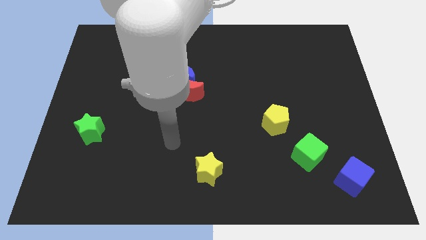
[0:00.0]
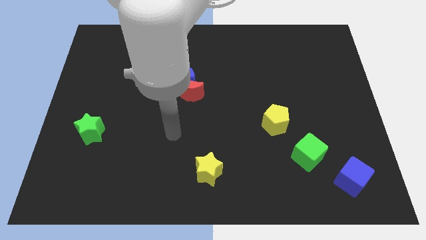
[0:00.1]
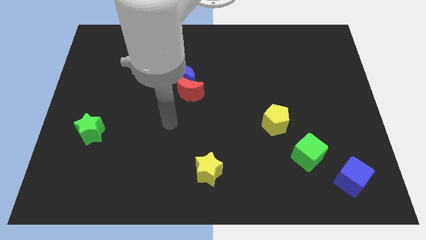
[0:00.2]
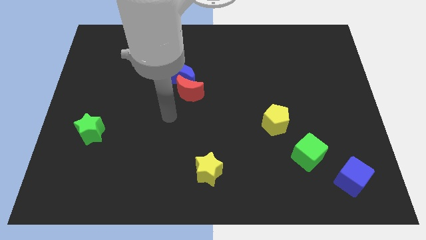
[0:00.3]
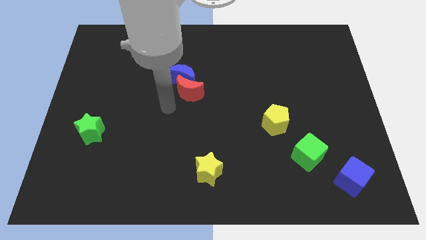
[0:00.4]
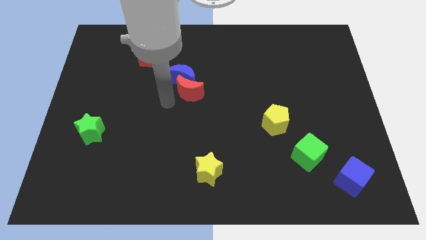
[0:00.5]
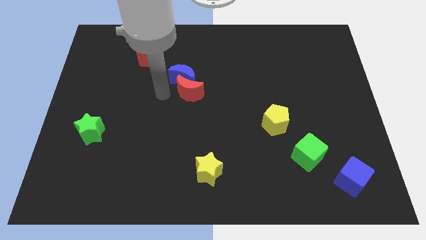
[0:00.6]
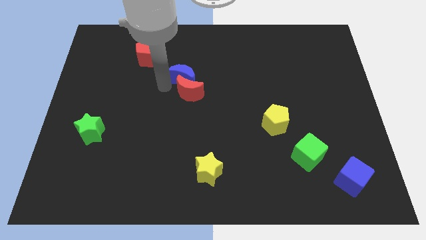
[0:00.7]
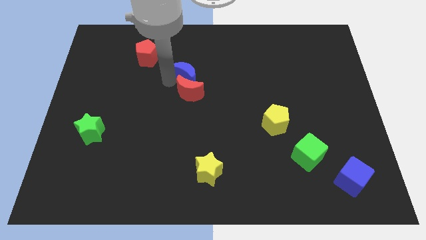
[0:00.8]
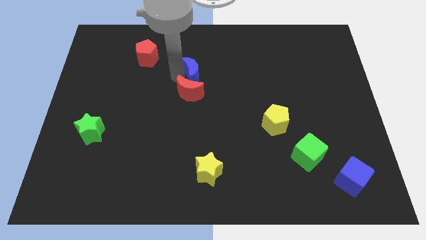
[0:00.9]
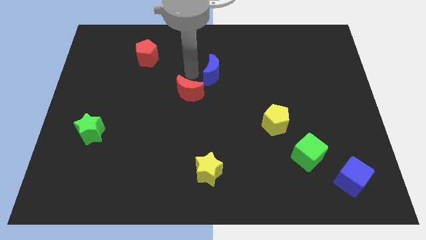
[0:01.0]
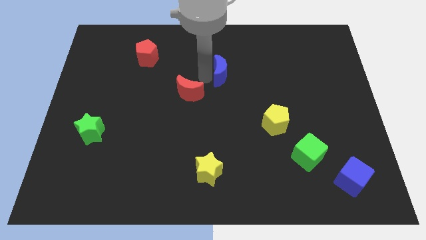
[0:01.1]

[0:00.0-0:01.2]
separate the red moon from the blue moon

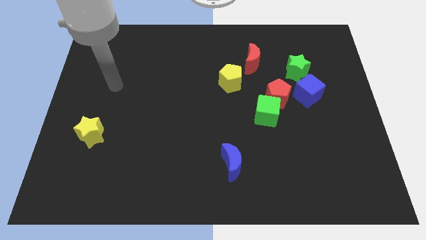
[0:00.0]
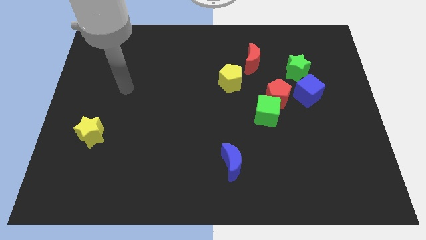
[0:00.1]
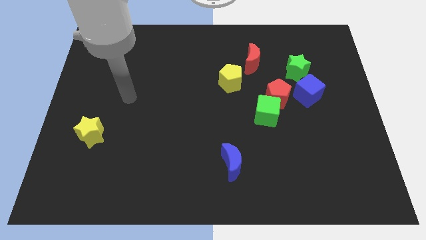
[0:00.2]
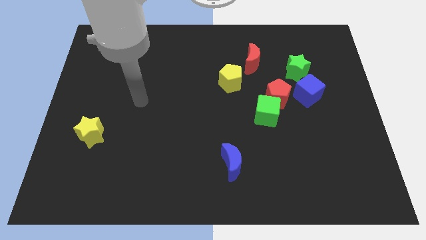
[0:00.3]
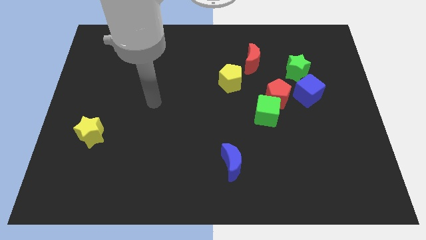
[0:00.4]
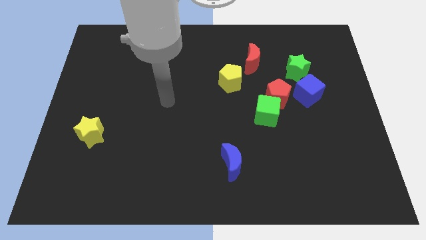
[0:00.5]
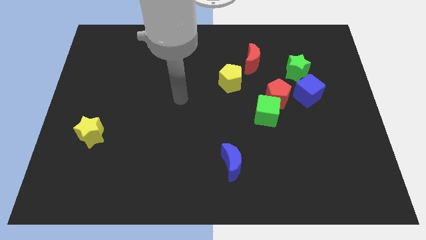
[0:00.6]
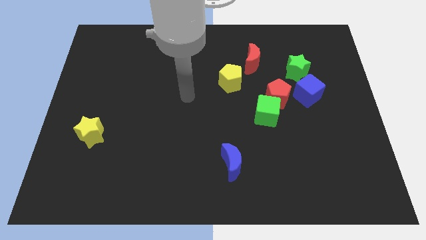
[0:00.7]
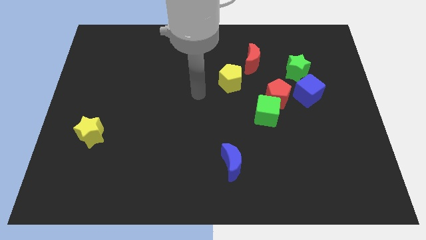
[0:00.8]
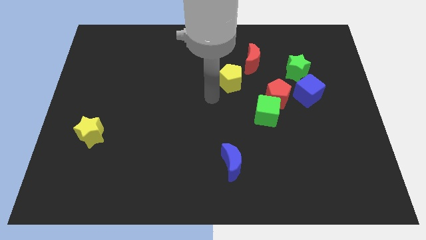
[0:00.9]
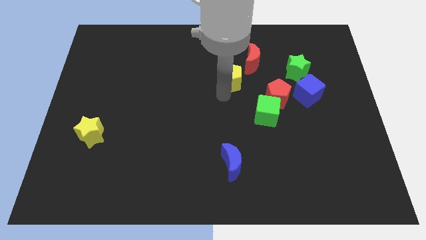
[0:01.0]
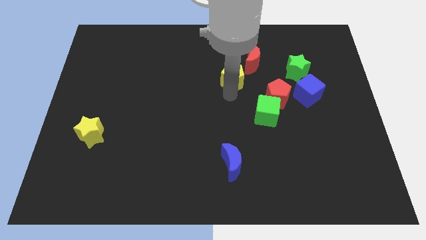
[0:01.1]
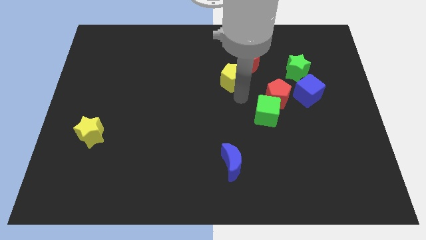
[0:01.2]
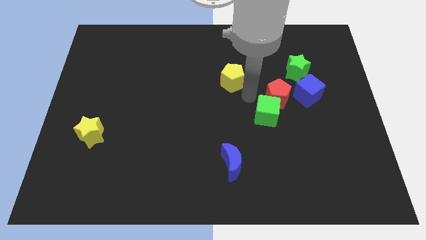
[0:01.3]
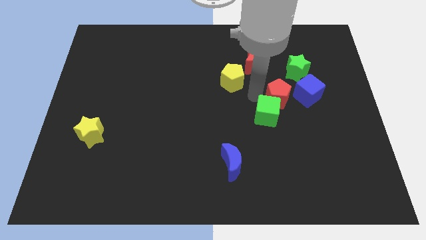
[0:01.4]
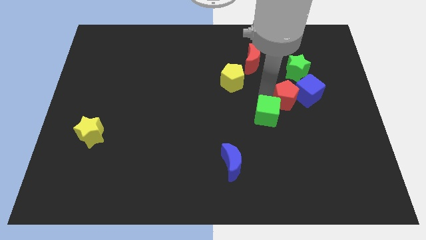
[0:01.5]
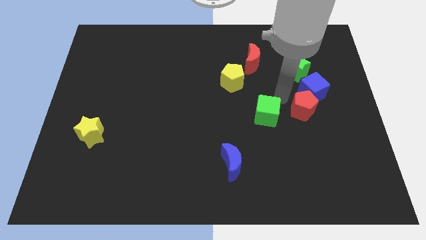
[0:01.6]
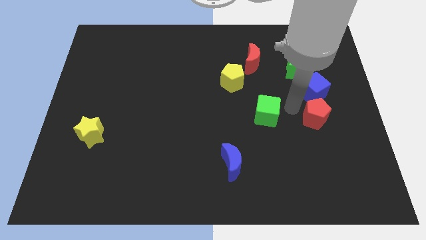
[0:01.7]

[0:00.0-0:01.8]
move the green cube away from the red pentagon

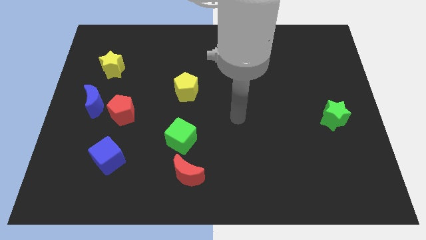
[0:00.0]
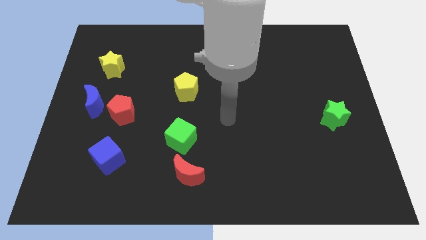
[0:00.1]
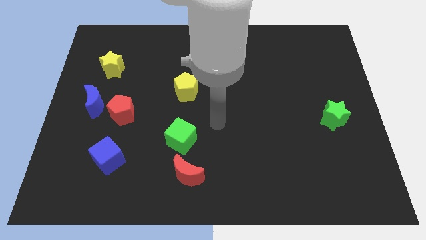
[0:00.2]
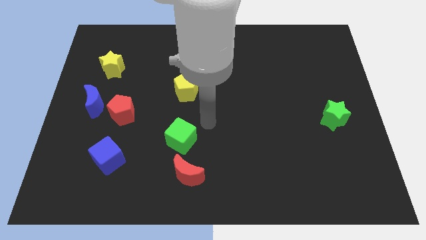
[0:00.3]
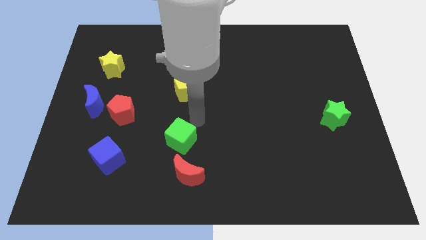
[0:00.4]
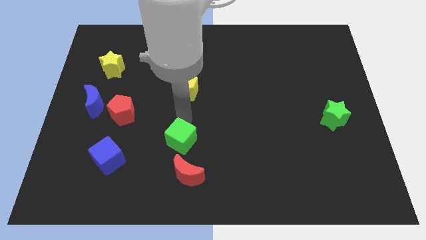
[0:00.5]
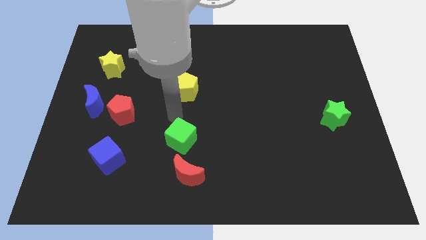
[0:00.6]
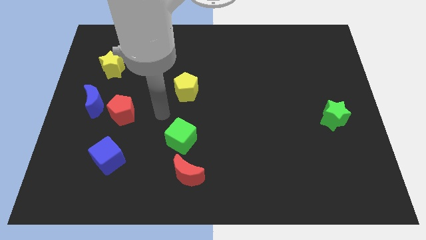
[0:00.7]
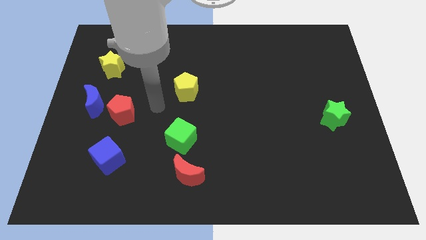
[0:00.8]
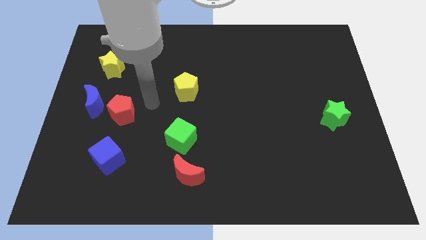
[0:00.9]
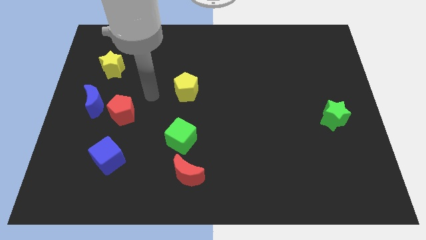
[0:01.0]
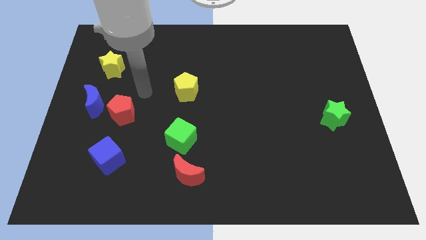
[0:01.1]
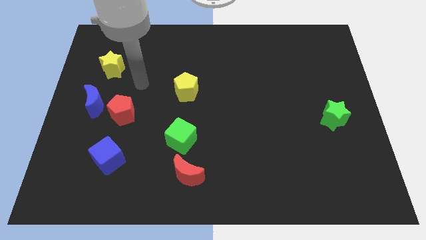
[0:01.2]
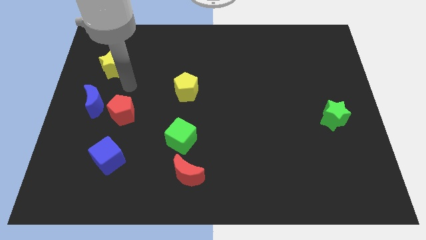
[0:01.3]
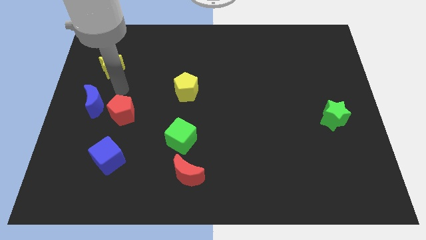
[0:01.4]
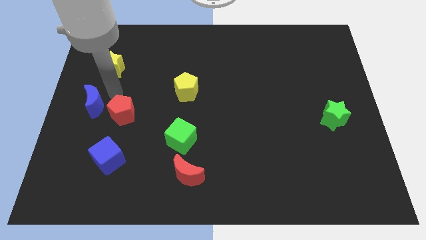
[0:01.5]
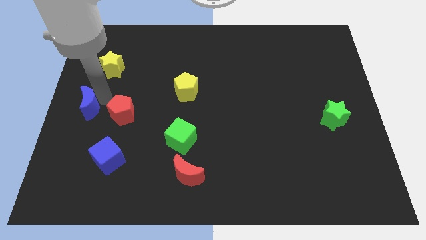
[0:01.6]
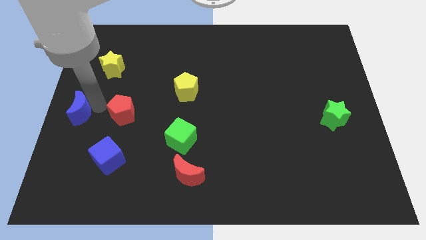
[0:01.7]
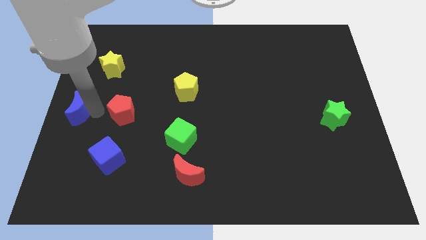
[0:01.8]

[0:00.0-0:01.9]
pull the red pentagon apart from the blue moon

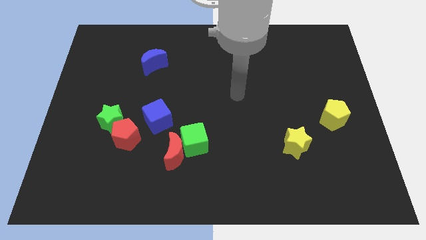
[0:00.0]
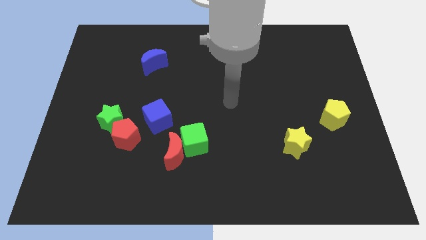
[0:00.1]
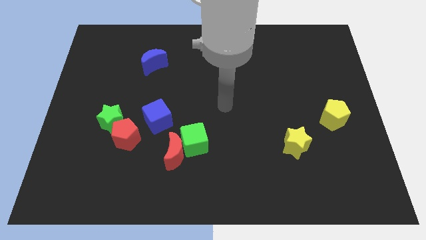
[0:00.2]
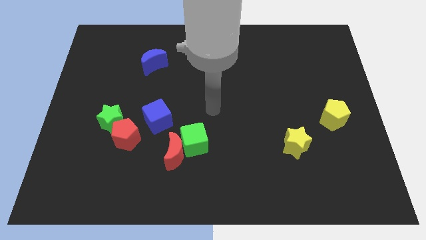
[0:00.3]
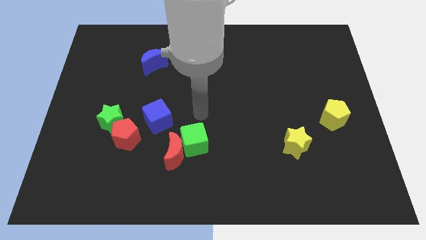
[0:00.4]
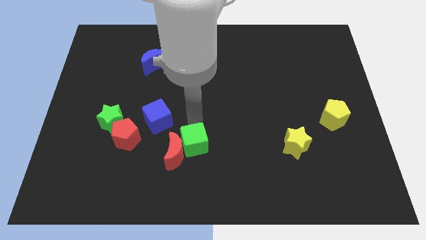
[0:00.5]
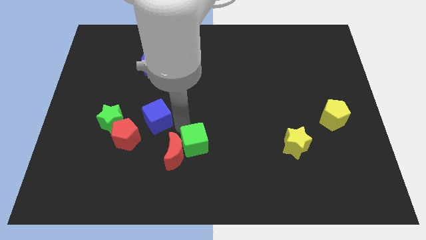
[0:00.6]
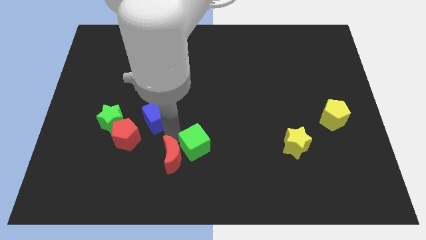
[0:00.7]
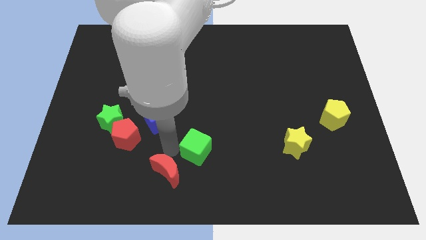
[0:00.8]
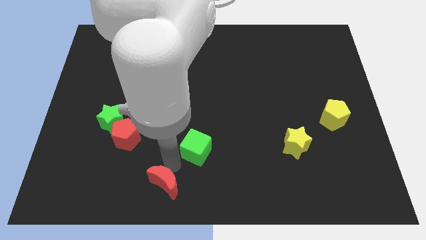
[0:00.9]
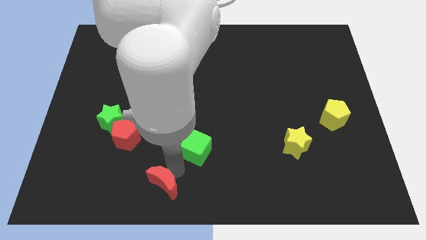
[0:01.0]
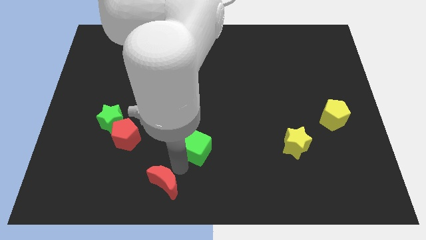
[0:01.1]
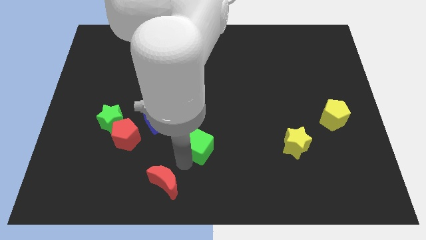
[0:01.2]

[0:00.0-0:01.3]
pull the green cube apart from the red moon

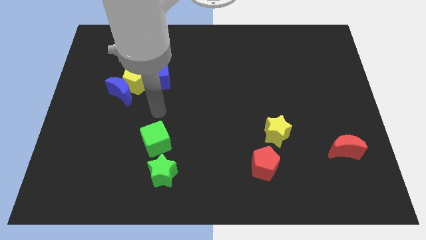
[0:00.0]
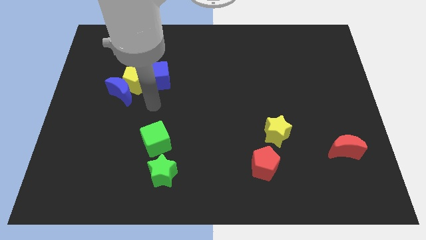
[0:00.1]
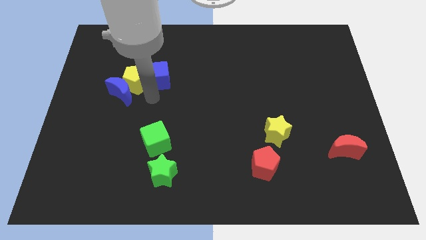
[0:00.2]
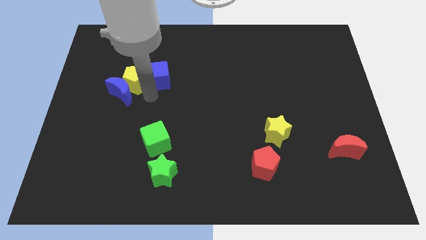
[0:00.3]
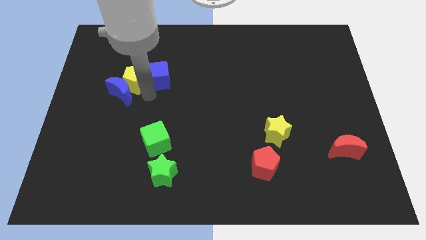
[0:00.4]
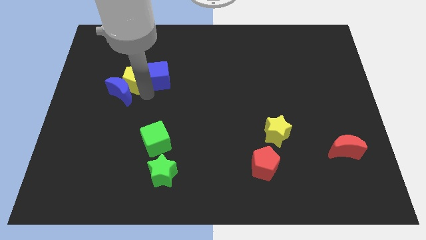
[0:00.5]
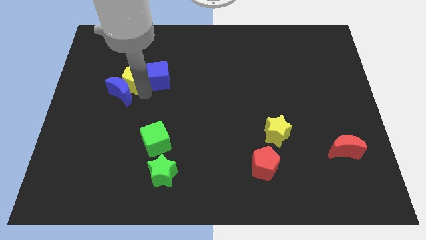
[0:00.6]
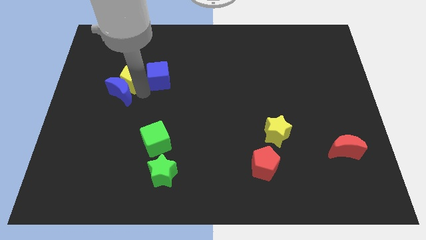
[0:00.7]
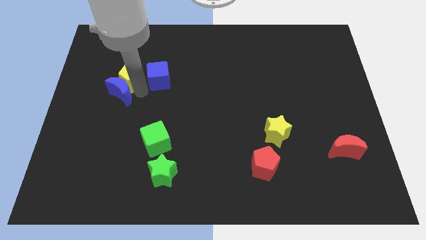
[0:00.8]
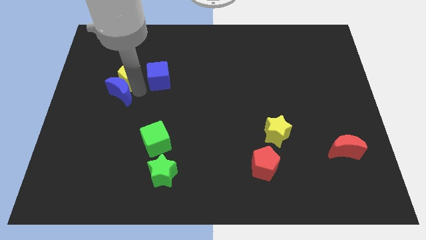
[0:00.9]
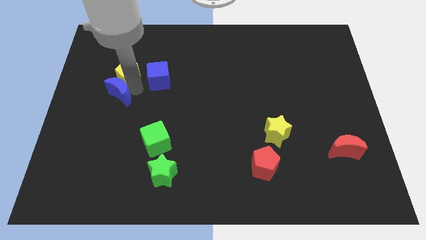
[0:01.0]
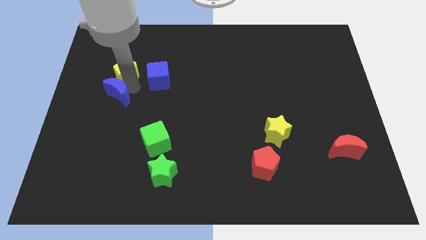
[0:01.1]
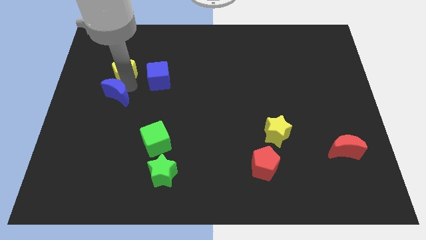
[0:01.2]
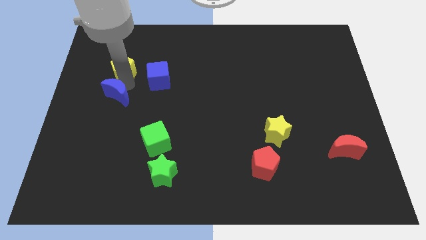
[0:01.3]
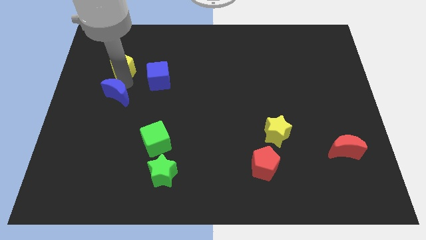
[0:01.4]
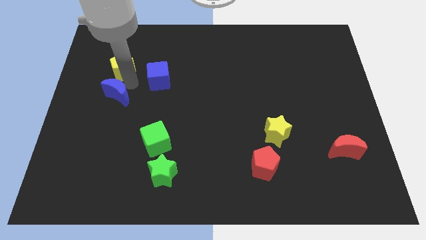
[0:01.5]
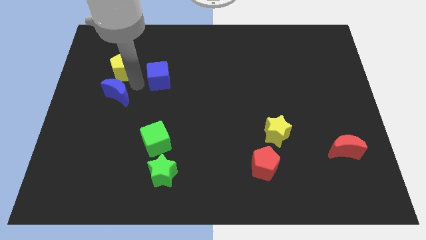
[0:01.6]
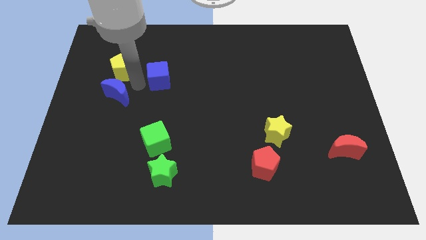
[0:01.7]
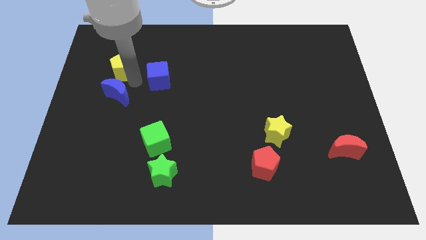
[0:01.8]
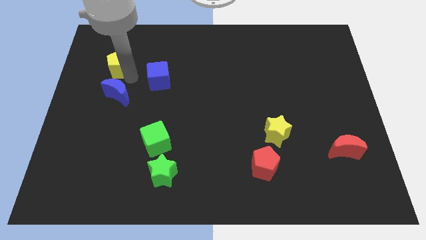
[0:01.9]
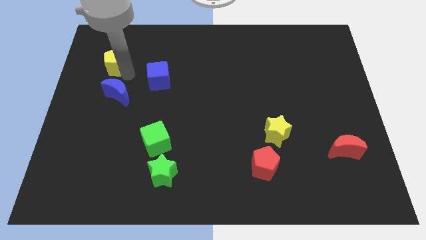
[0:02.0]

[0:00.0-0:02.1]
separate the yellow pentagon from the blue moon and blue cube

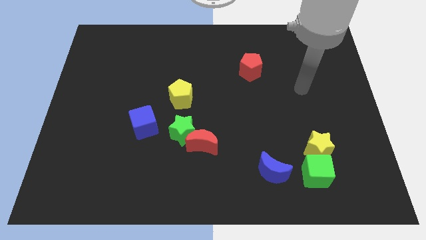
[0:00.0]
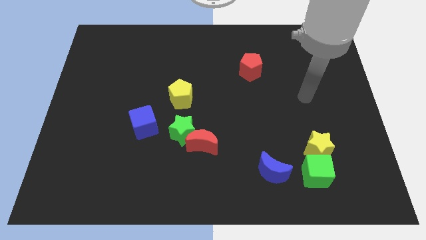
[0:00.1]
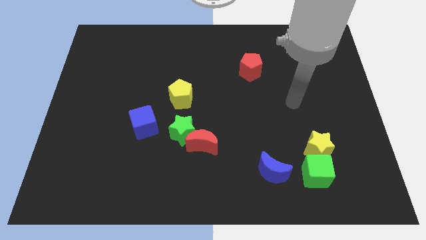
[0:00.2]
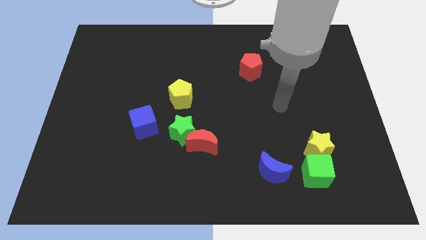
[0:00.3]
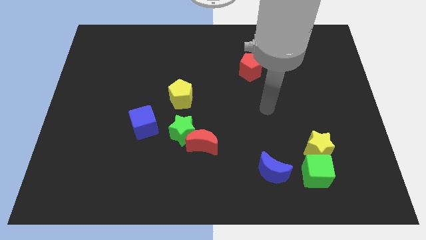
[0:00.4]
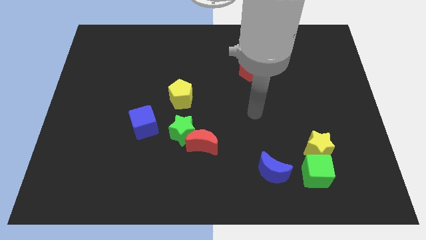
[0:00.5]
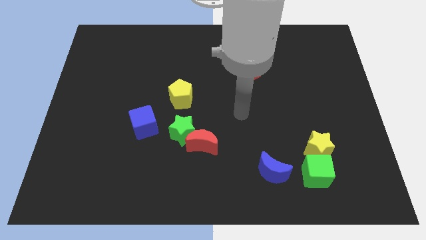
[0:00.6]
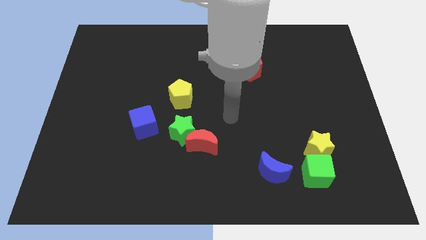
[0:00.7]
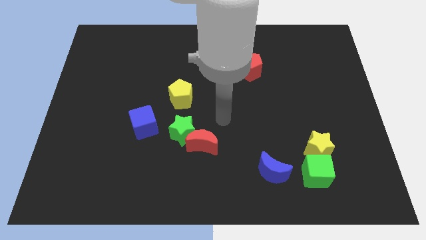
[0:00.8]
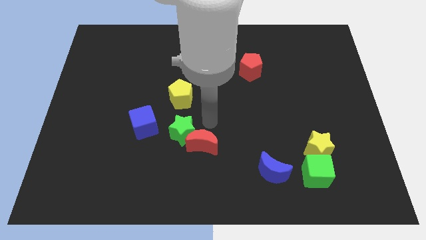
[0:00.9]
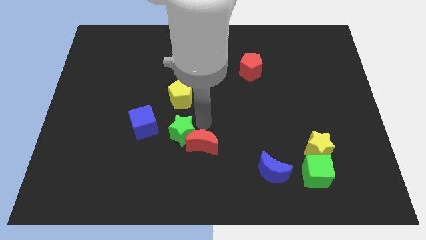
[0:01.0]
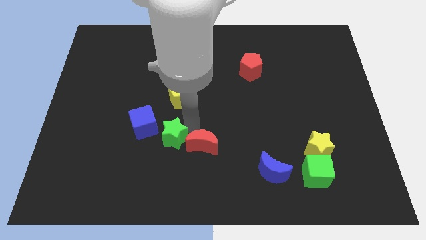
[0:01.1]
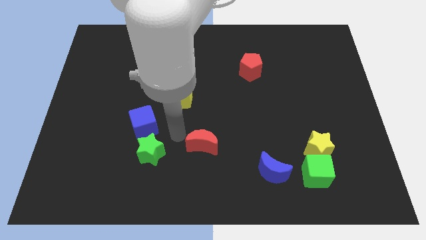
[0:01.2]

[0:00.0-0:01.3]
pull the red moon apart from the green star
